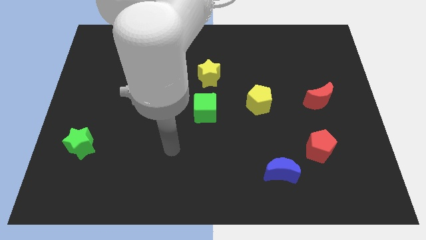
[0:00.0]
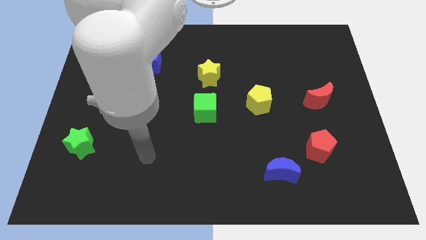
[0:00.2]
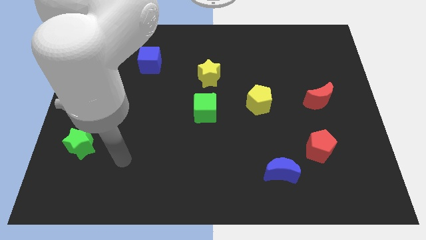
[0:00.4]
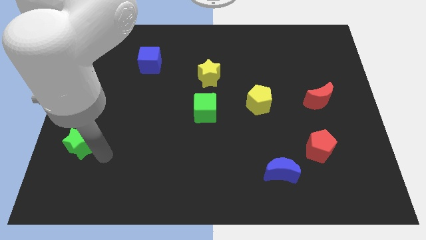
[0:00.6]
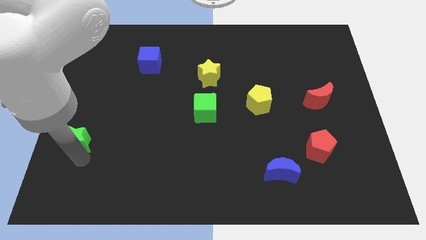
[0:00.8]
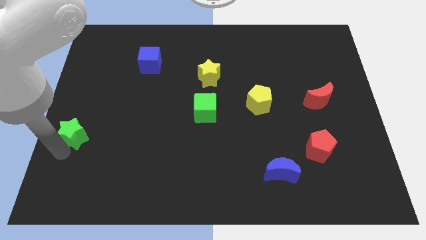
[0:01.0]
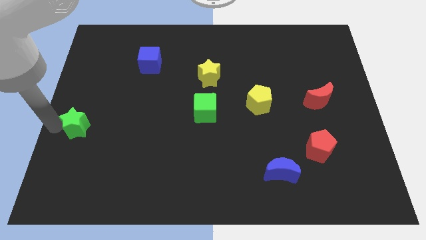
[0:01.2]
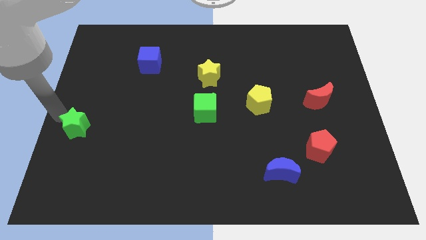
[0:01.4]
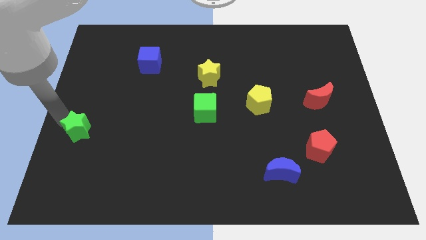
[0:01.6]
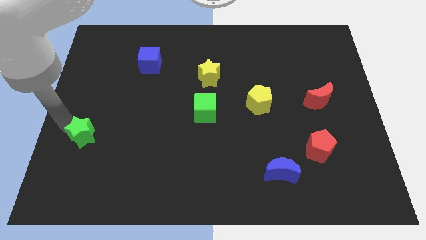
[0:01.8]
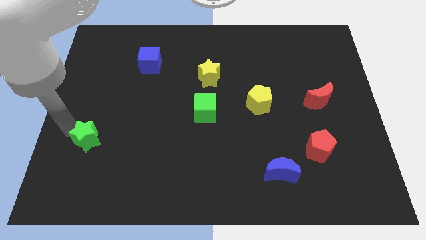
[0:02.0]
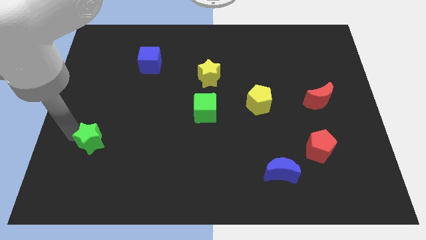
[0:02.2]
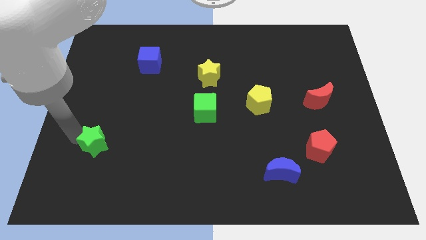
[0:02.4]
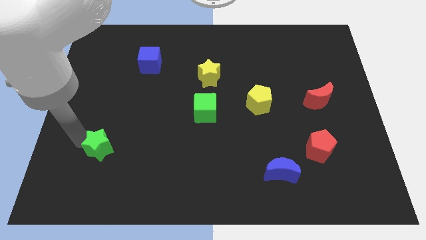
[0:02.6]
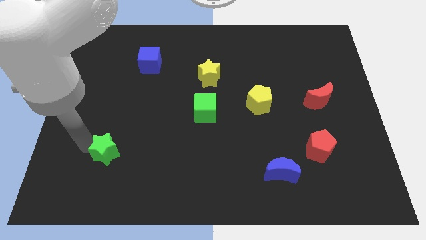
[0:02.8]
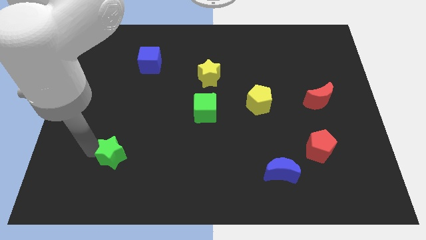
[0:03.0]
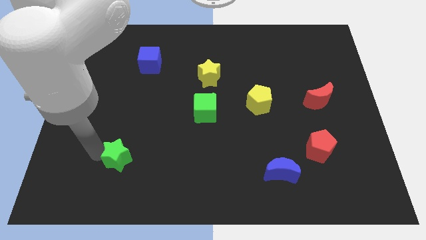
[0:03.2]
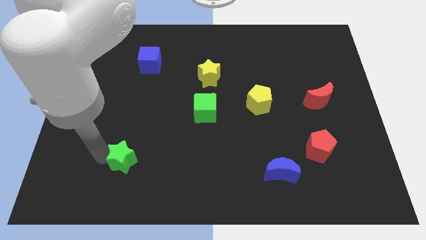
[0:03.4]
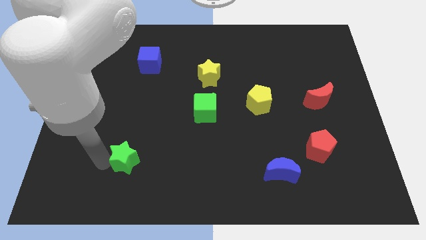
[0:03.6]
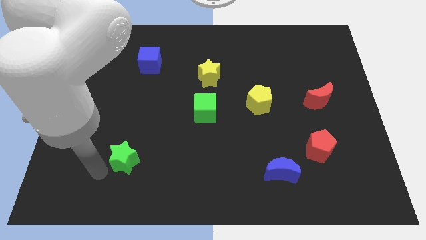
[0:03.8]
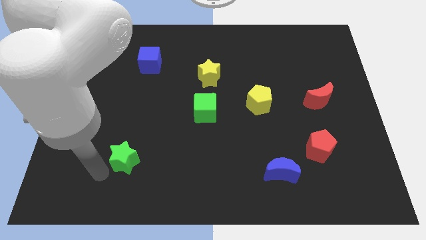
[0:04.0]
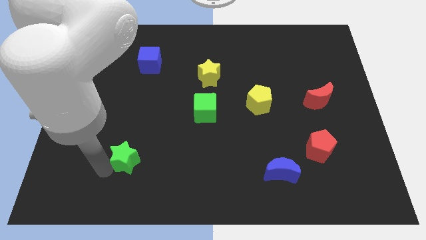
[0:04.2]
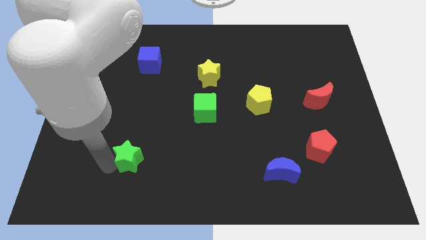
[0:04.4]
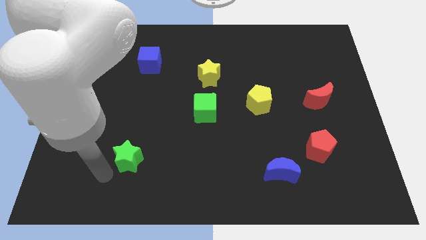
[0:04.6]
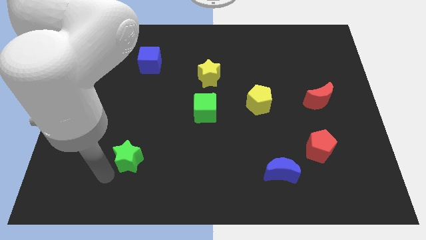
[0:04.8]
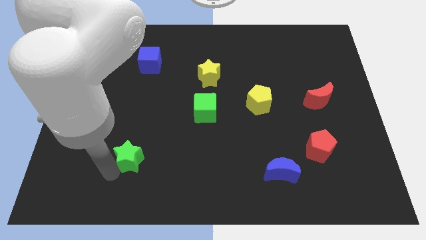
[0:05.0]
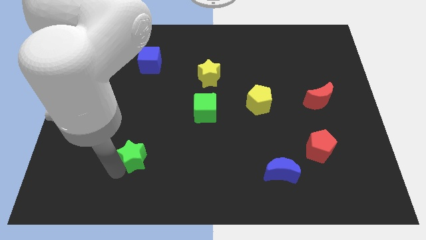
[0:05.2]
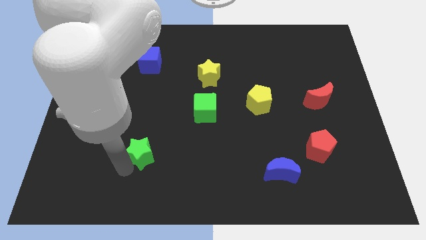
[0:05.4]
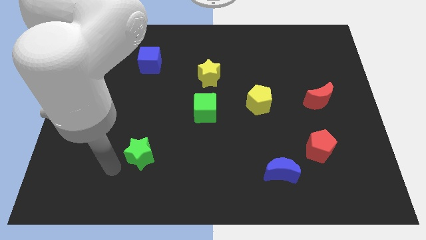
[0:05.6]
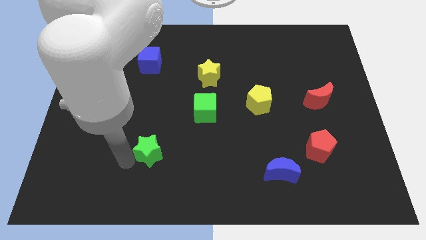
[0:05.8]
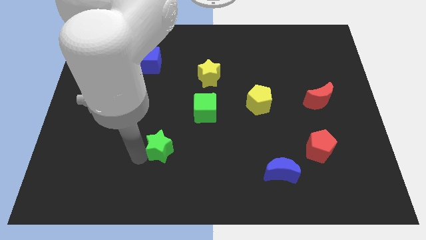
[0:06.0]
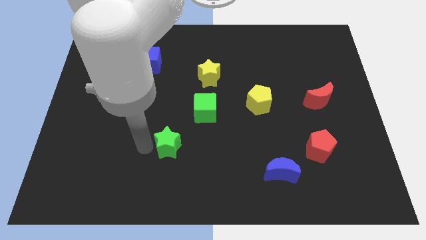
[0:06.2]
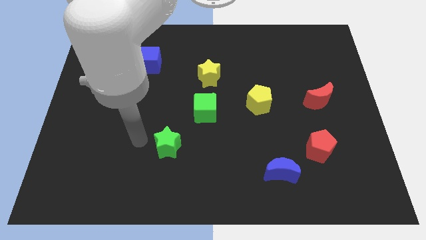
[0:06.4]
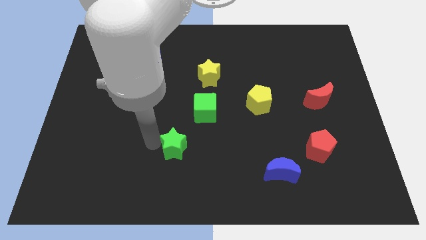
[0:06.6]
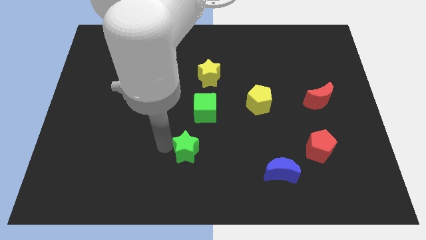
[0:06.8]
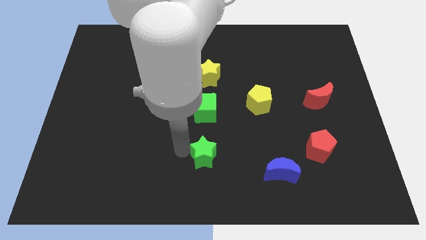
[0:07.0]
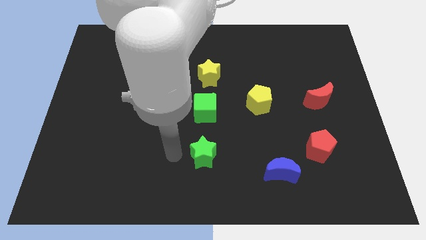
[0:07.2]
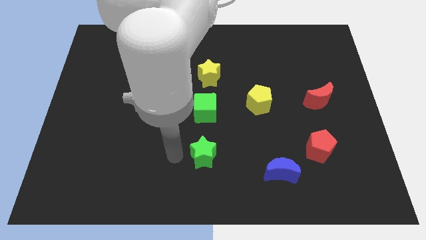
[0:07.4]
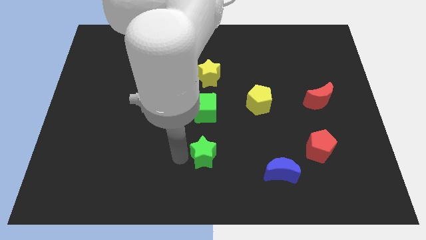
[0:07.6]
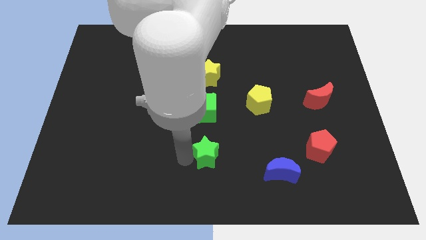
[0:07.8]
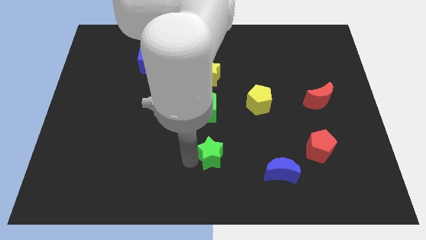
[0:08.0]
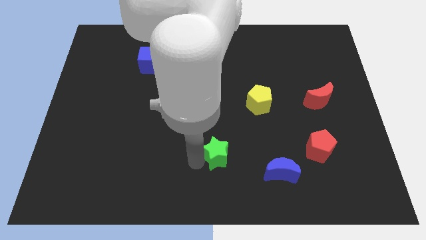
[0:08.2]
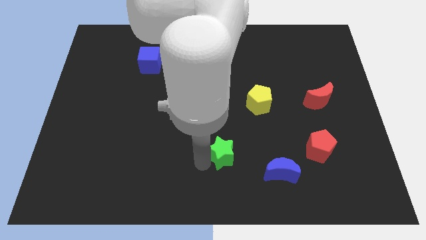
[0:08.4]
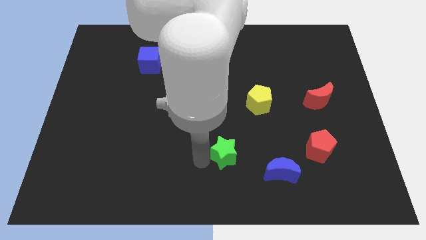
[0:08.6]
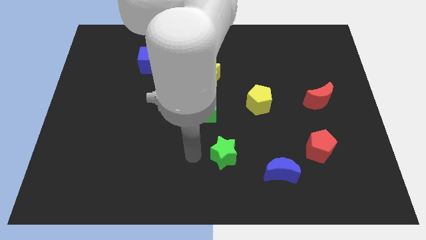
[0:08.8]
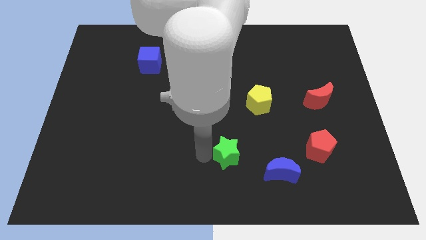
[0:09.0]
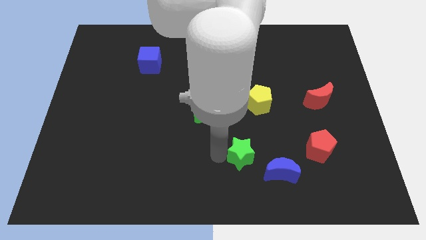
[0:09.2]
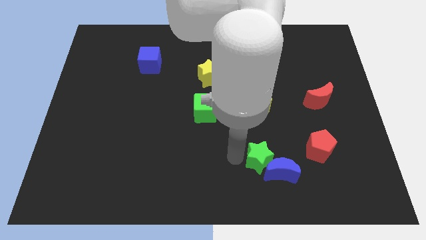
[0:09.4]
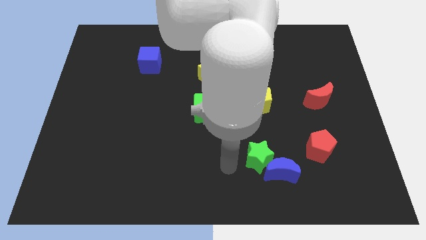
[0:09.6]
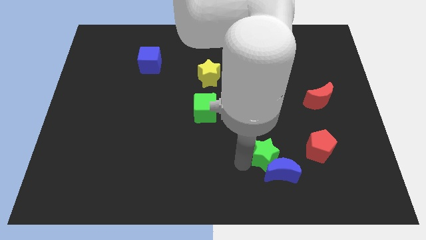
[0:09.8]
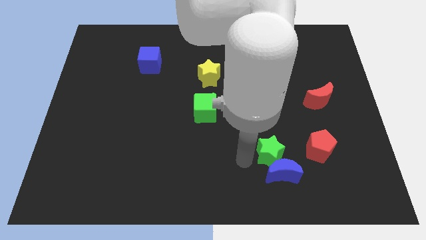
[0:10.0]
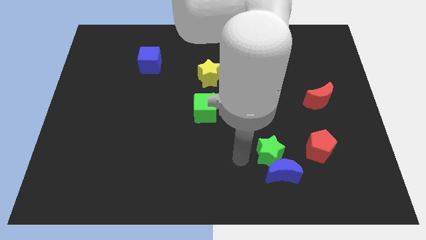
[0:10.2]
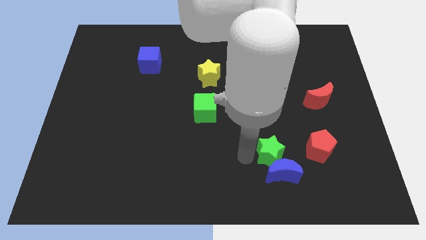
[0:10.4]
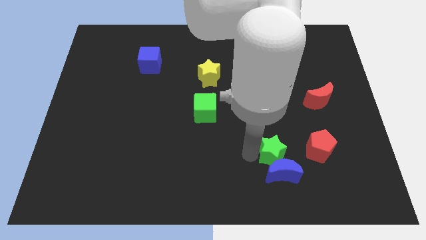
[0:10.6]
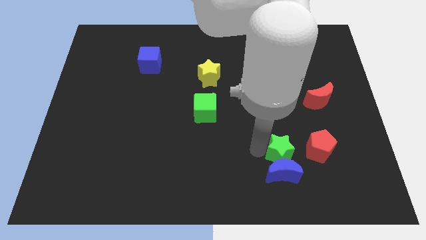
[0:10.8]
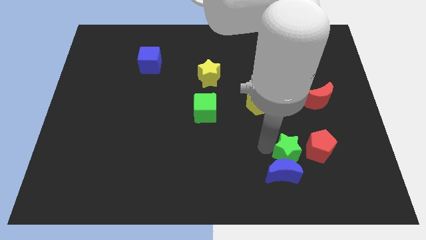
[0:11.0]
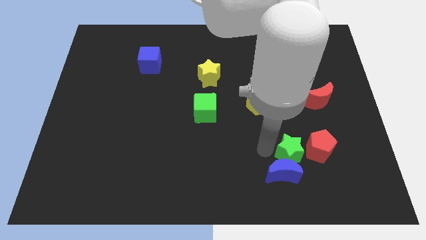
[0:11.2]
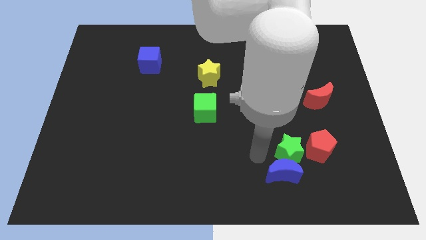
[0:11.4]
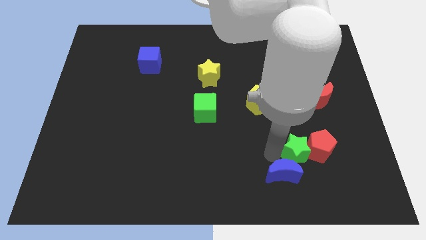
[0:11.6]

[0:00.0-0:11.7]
slide the green star close to the red pentagon

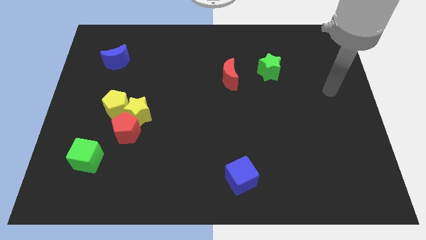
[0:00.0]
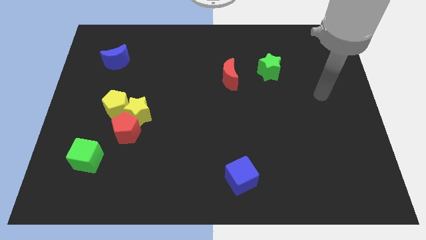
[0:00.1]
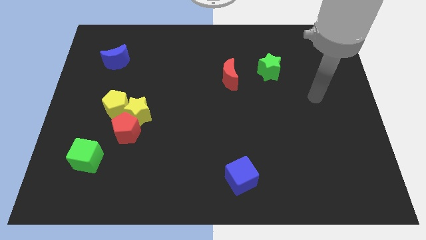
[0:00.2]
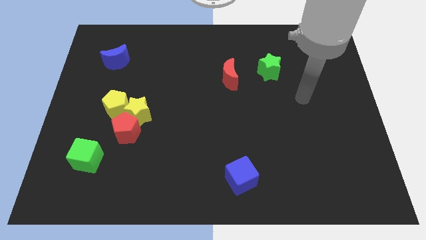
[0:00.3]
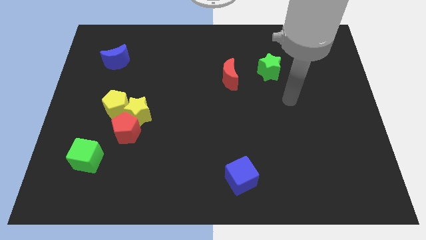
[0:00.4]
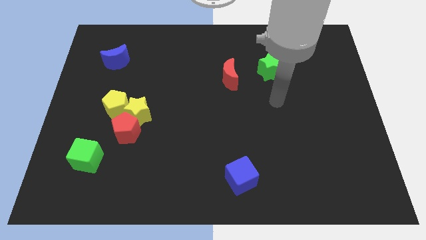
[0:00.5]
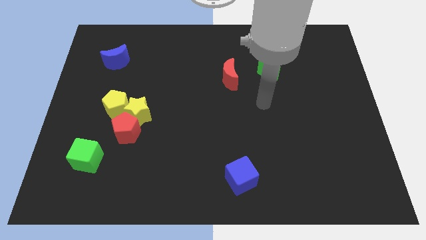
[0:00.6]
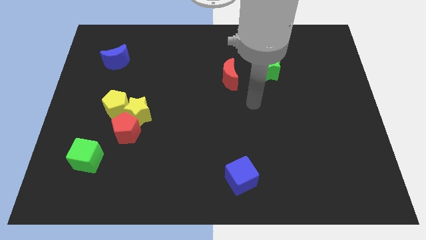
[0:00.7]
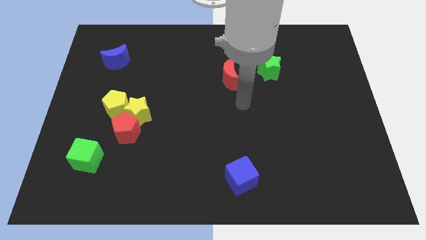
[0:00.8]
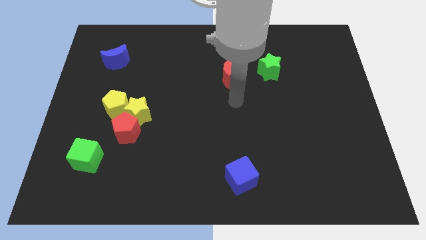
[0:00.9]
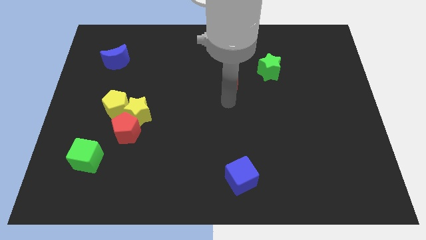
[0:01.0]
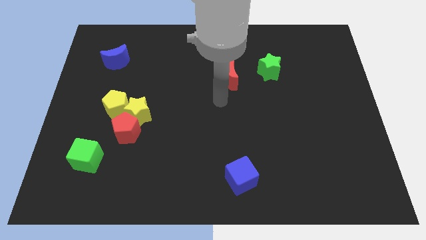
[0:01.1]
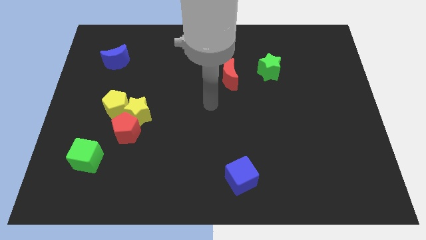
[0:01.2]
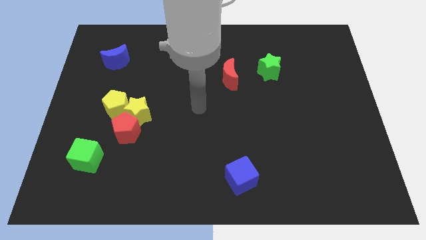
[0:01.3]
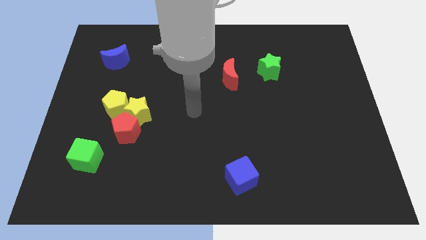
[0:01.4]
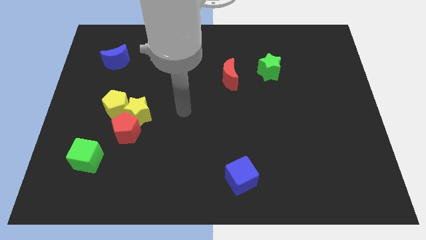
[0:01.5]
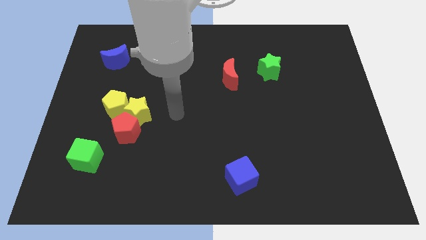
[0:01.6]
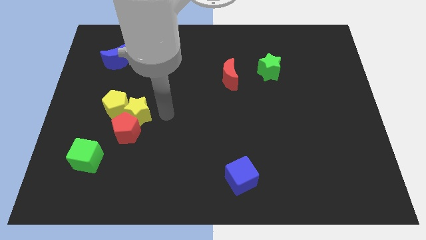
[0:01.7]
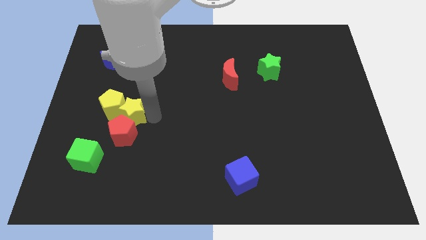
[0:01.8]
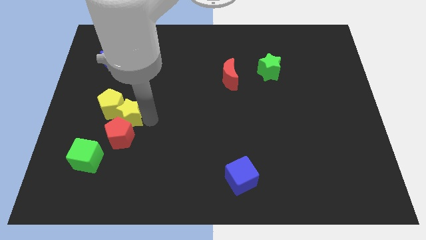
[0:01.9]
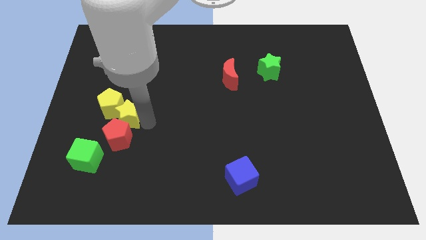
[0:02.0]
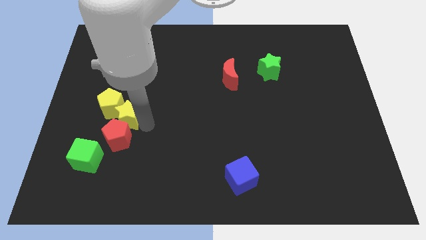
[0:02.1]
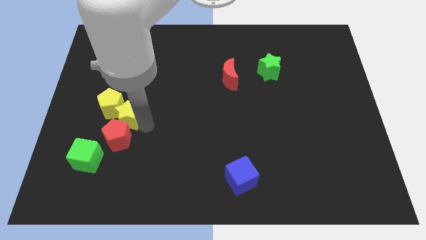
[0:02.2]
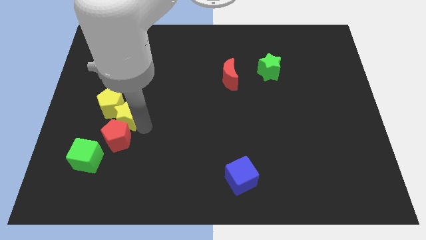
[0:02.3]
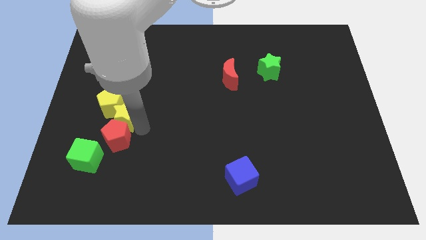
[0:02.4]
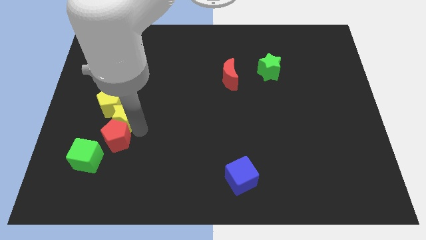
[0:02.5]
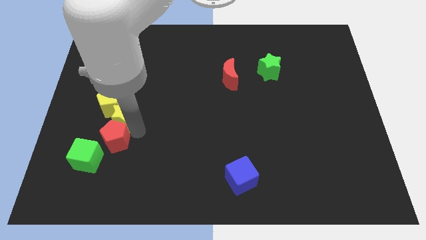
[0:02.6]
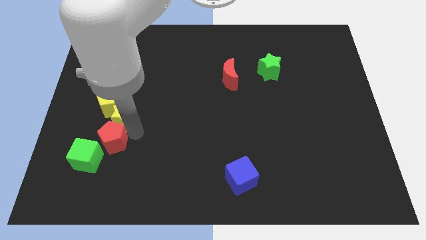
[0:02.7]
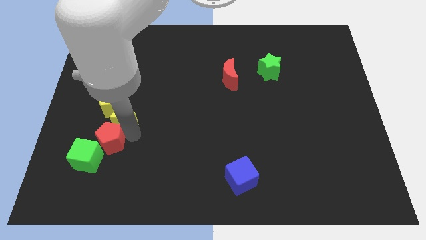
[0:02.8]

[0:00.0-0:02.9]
put the red pentagon to the green cube
